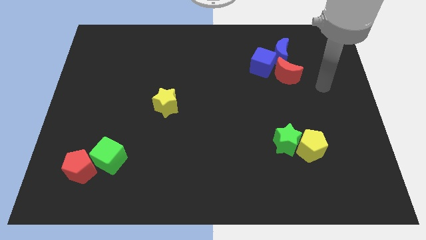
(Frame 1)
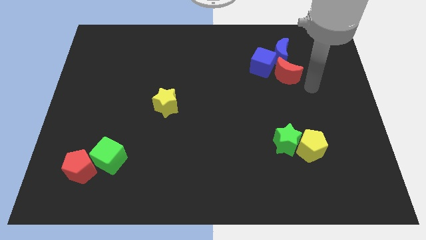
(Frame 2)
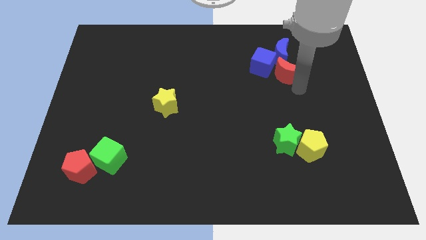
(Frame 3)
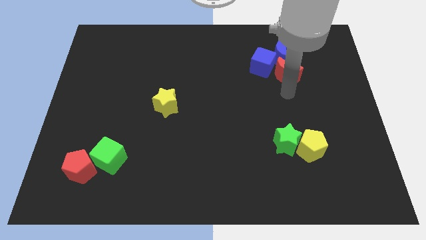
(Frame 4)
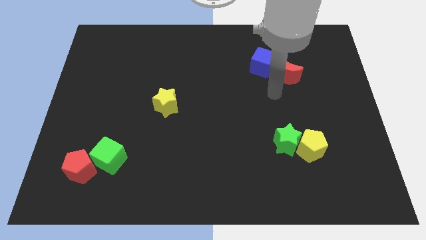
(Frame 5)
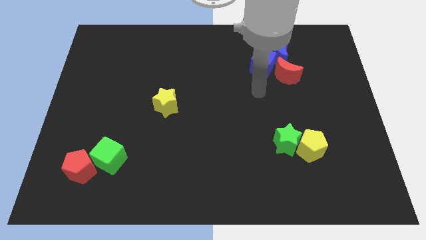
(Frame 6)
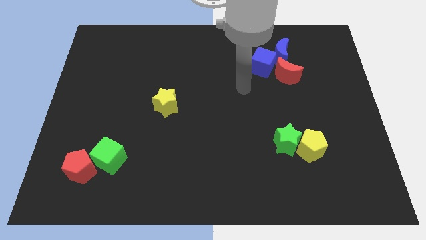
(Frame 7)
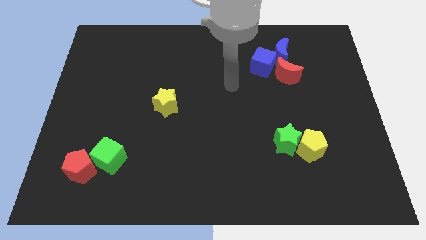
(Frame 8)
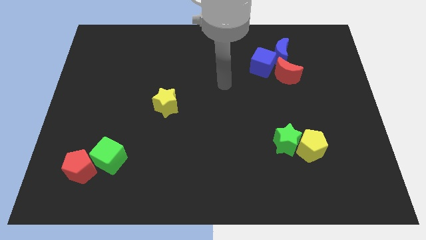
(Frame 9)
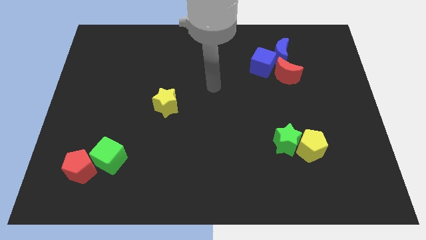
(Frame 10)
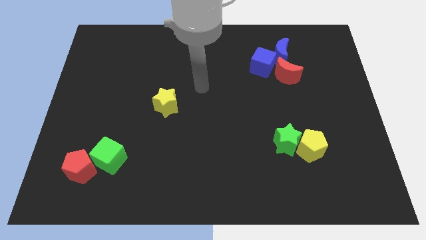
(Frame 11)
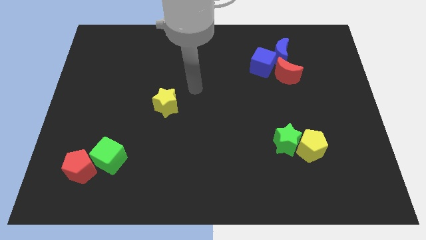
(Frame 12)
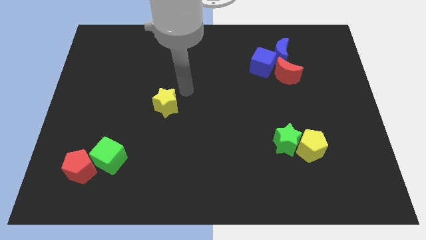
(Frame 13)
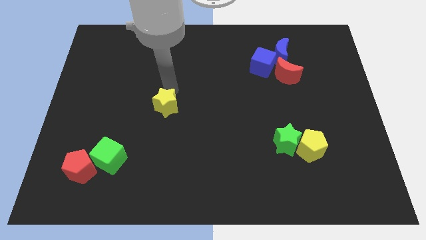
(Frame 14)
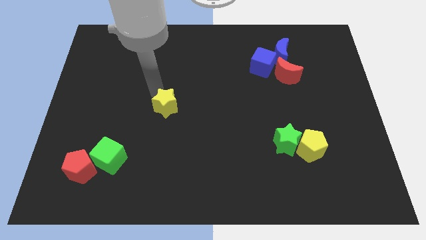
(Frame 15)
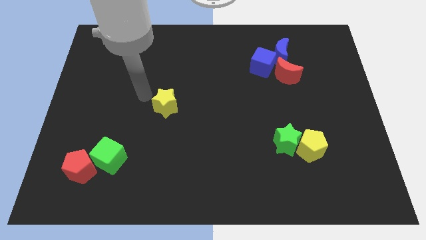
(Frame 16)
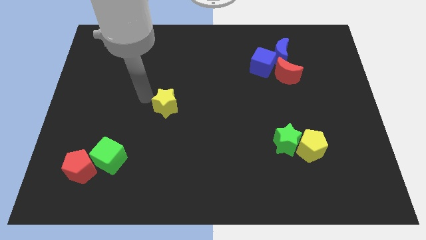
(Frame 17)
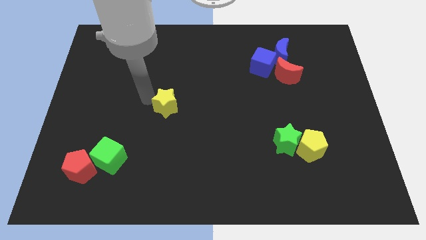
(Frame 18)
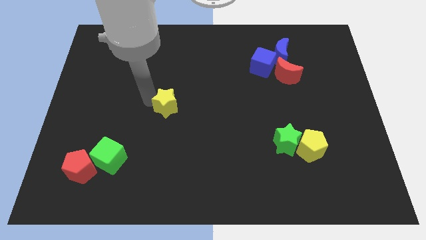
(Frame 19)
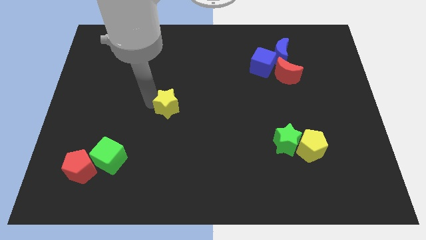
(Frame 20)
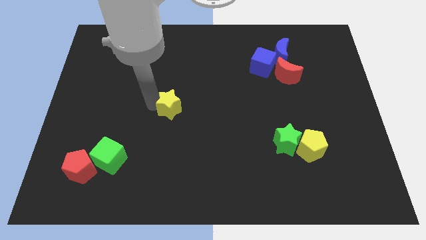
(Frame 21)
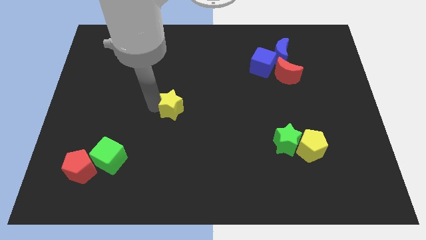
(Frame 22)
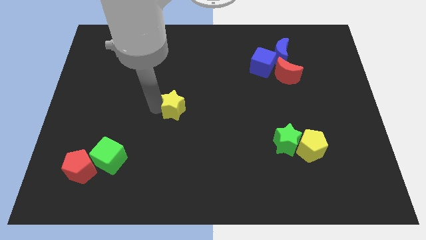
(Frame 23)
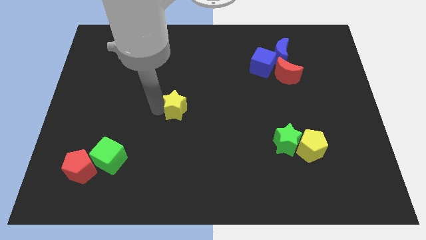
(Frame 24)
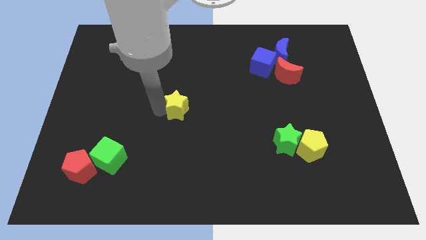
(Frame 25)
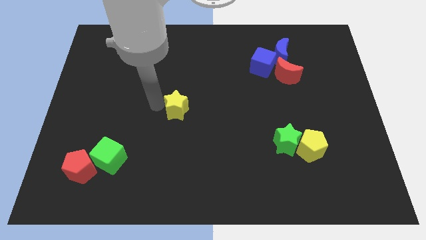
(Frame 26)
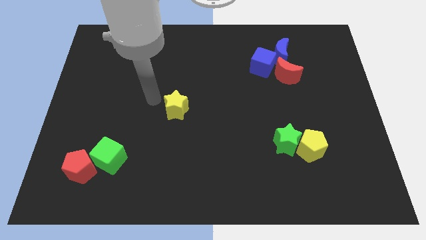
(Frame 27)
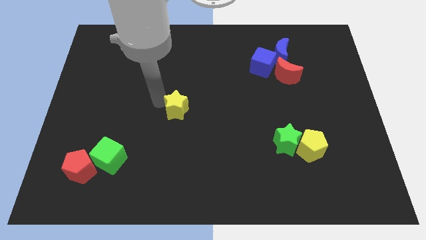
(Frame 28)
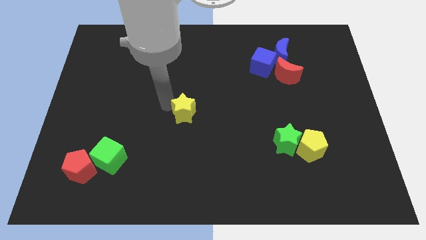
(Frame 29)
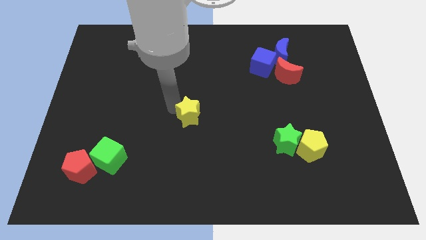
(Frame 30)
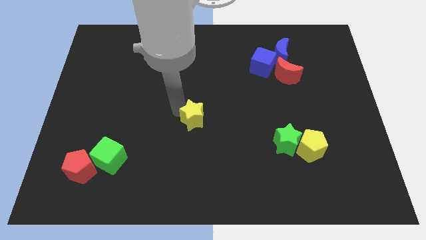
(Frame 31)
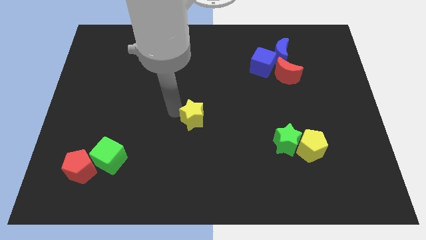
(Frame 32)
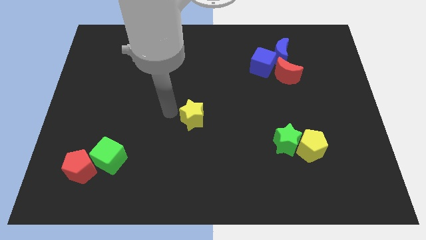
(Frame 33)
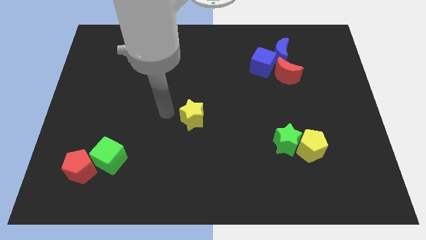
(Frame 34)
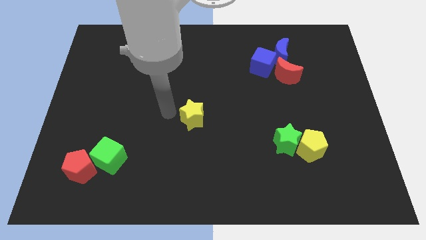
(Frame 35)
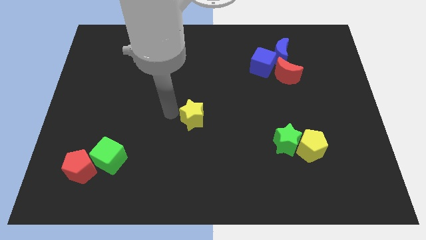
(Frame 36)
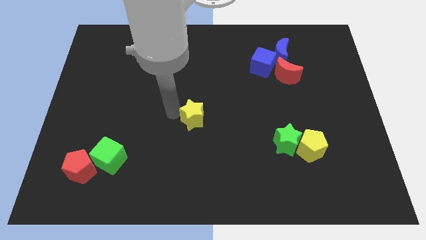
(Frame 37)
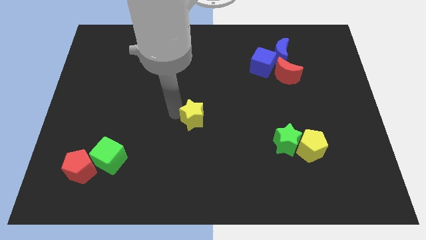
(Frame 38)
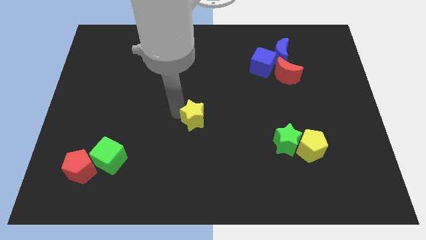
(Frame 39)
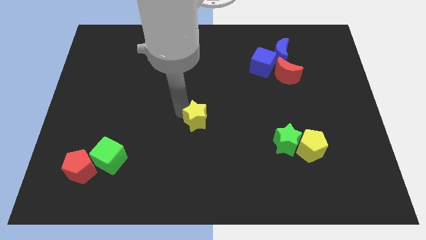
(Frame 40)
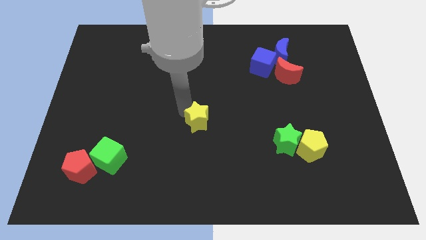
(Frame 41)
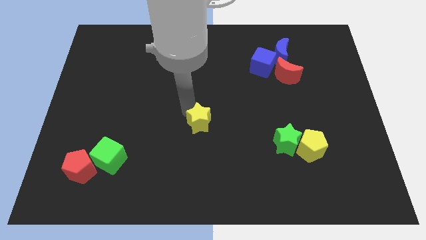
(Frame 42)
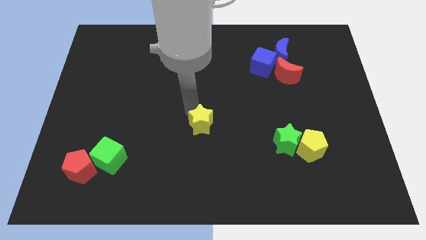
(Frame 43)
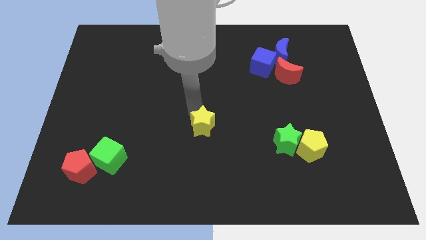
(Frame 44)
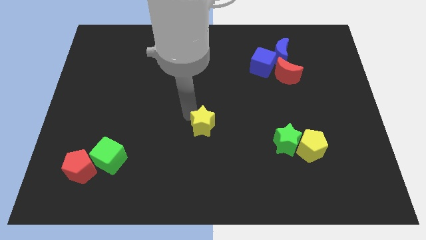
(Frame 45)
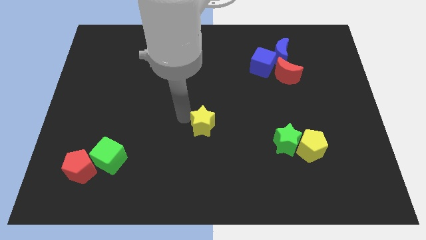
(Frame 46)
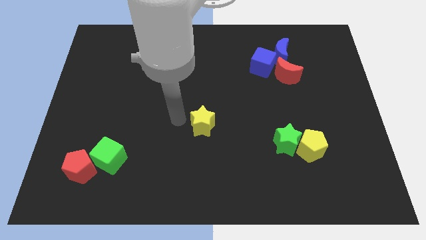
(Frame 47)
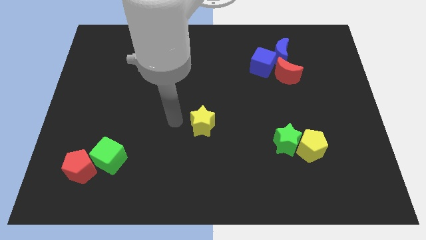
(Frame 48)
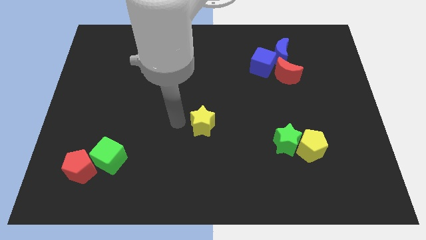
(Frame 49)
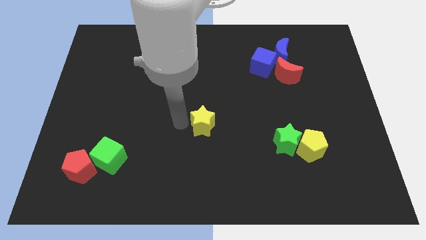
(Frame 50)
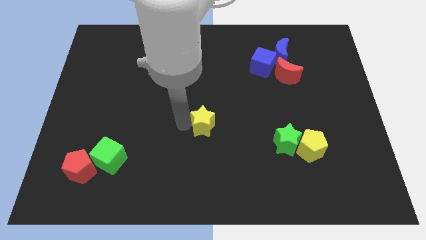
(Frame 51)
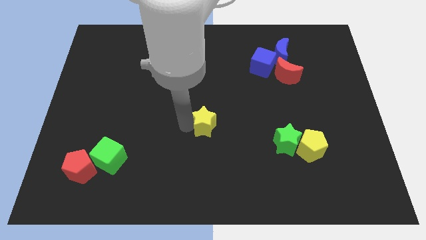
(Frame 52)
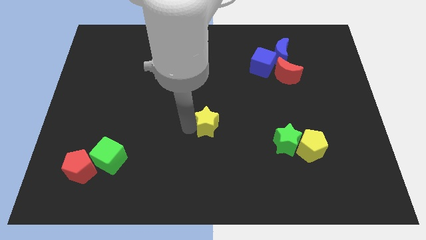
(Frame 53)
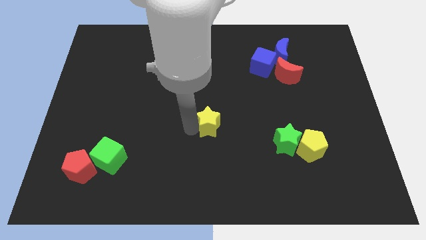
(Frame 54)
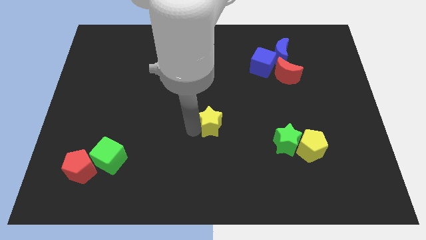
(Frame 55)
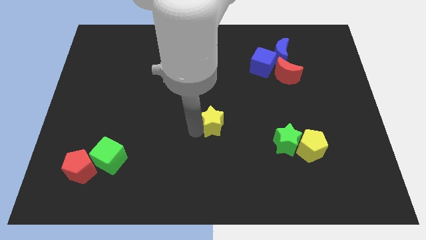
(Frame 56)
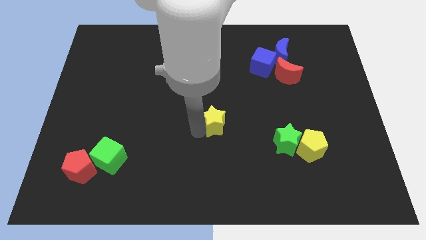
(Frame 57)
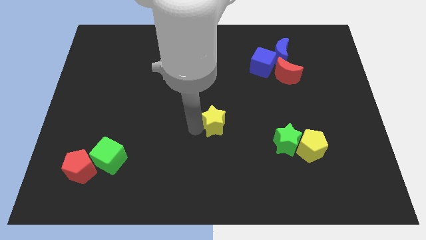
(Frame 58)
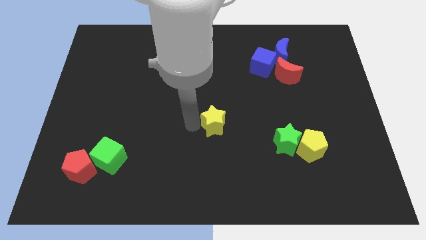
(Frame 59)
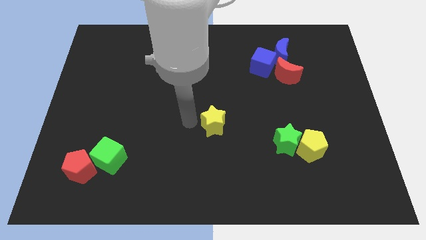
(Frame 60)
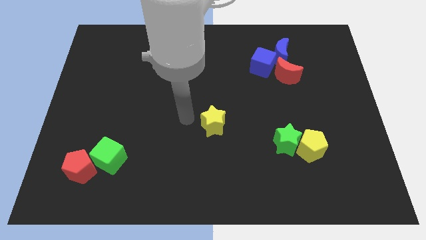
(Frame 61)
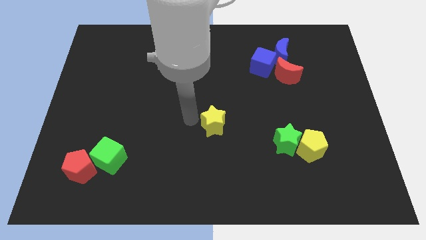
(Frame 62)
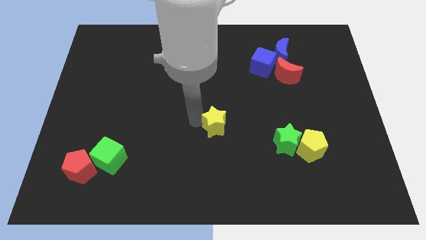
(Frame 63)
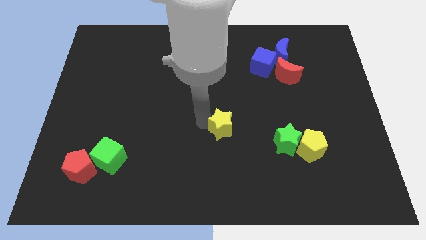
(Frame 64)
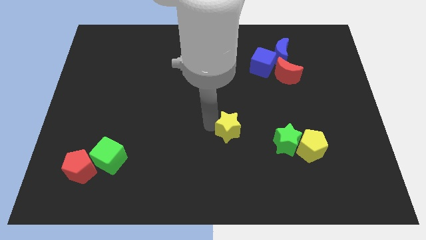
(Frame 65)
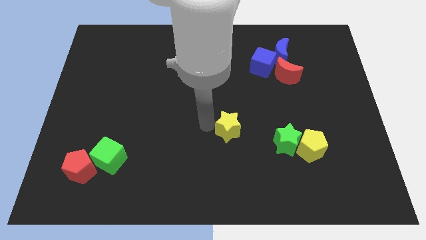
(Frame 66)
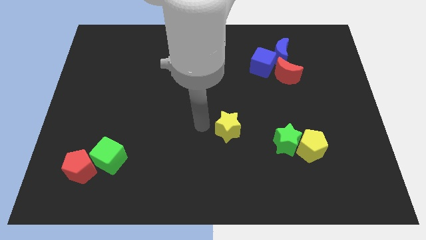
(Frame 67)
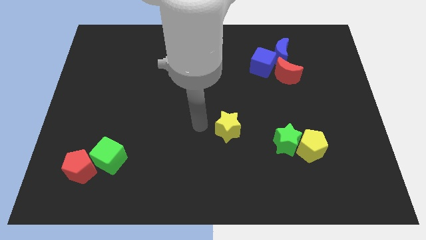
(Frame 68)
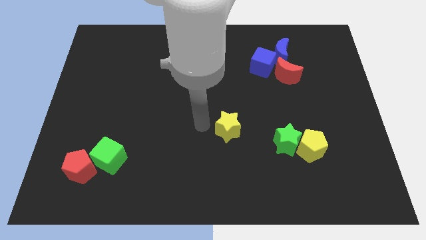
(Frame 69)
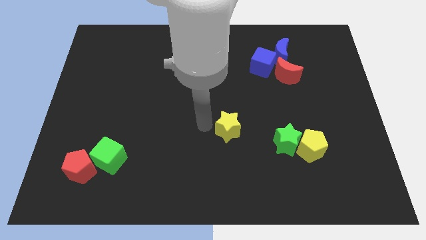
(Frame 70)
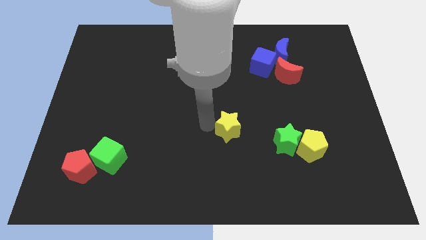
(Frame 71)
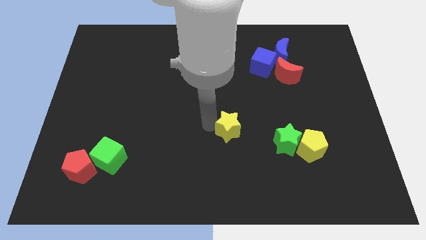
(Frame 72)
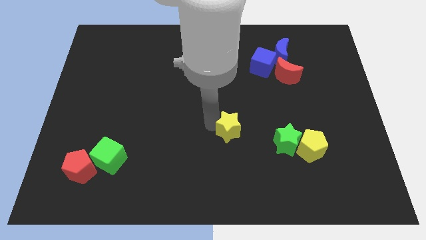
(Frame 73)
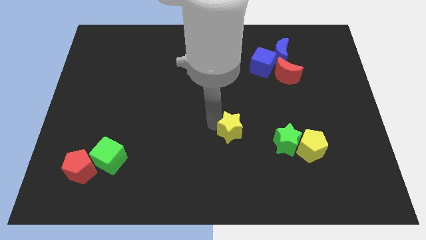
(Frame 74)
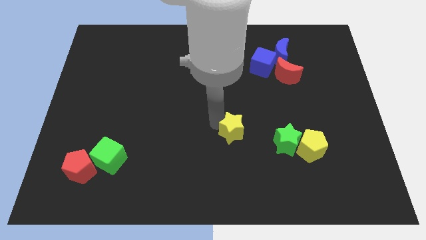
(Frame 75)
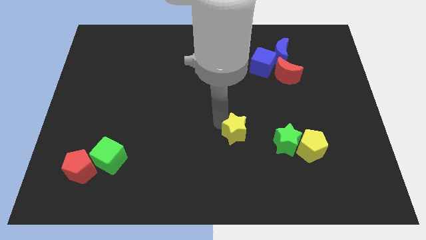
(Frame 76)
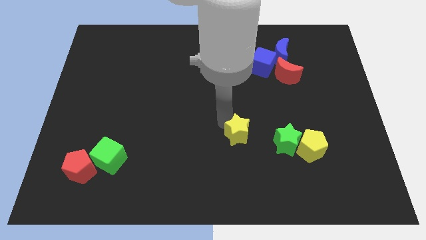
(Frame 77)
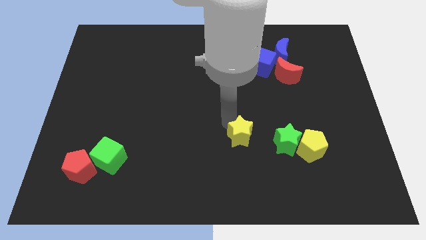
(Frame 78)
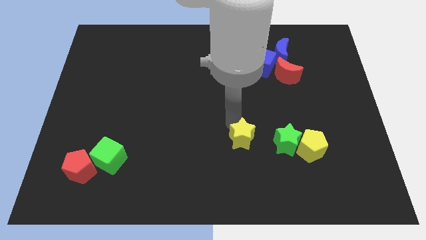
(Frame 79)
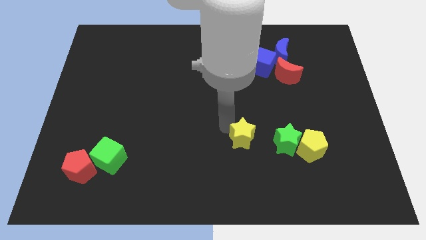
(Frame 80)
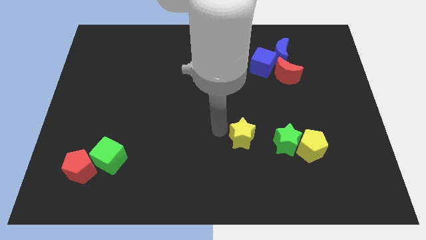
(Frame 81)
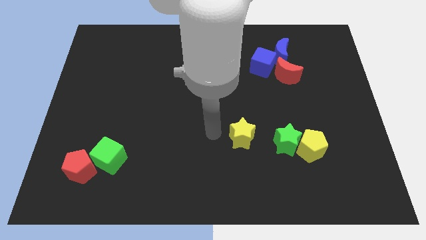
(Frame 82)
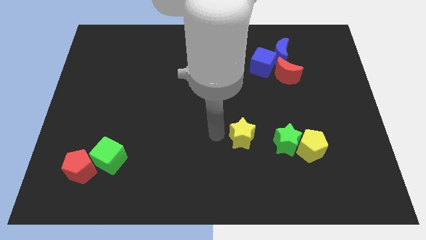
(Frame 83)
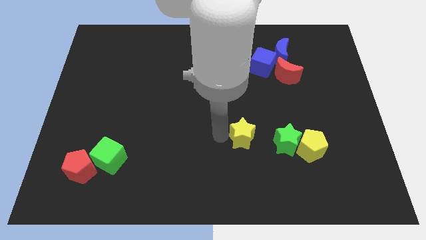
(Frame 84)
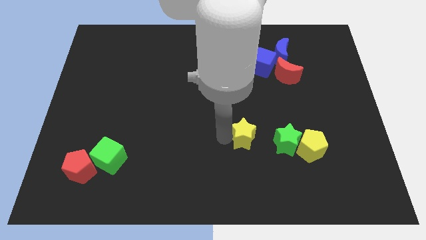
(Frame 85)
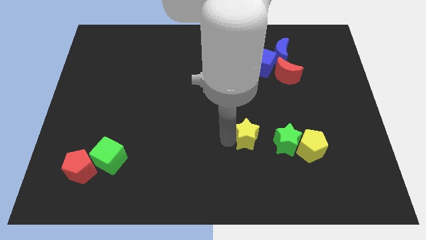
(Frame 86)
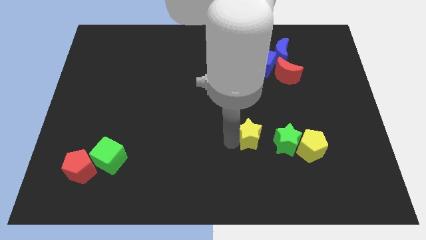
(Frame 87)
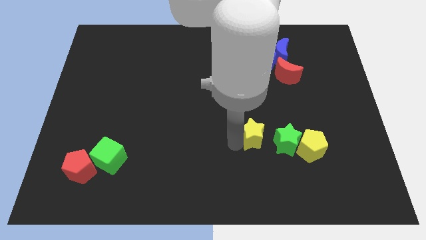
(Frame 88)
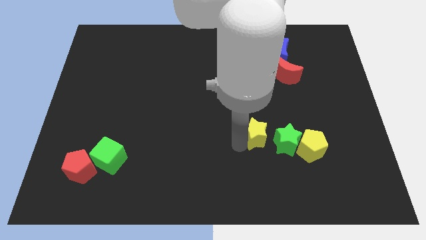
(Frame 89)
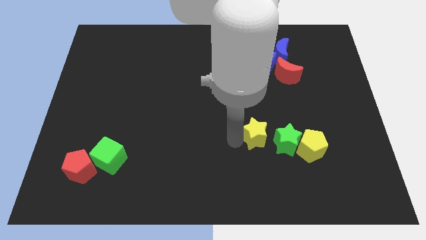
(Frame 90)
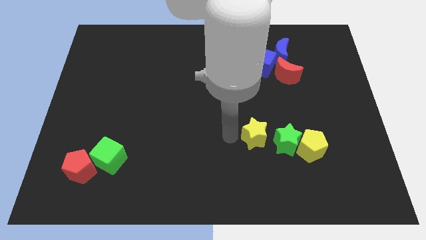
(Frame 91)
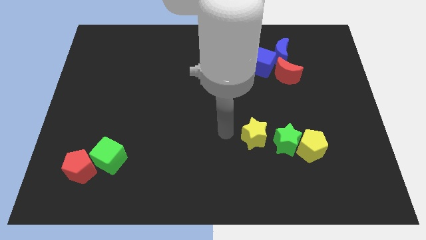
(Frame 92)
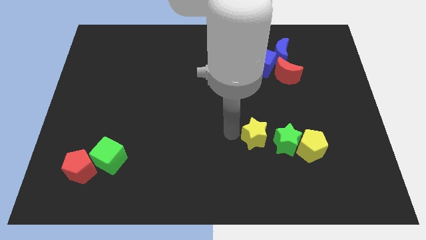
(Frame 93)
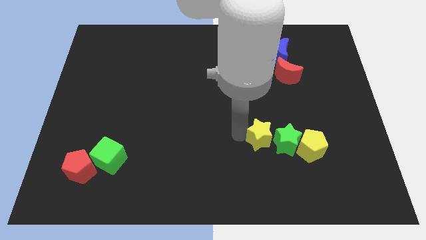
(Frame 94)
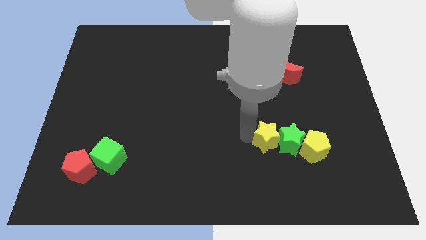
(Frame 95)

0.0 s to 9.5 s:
push the yellow star to the green star
